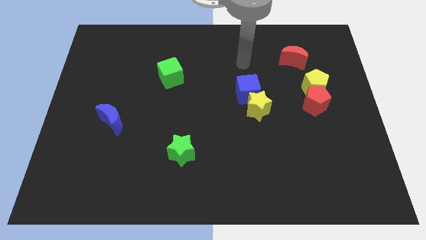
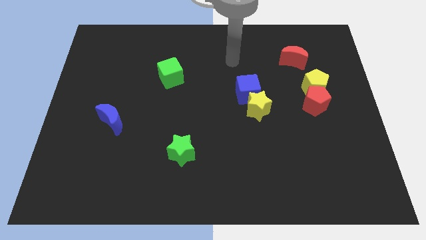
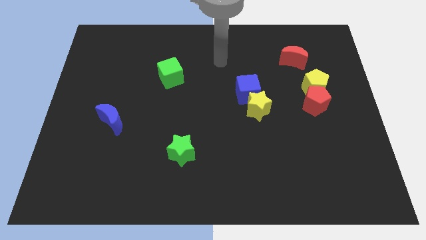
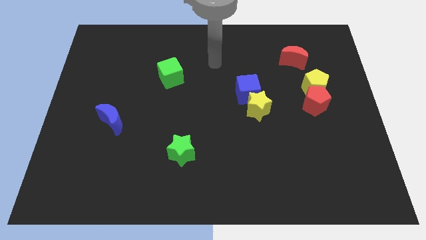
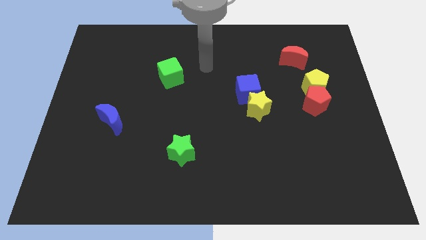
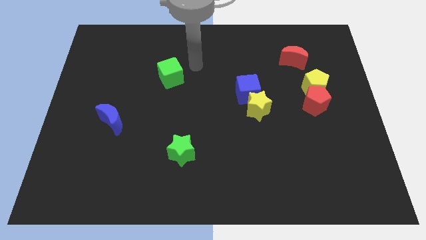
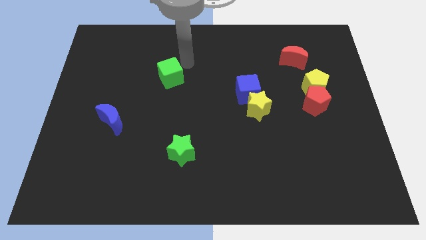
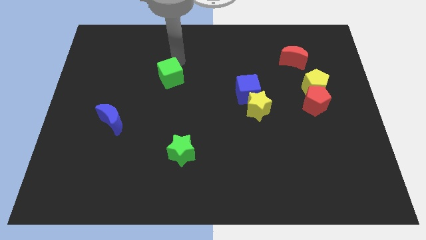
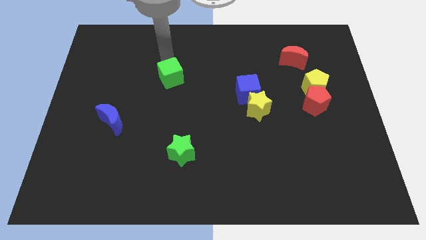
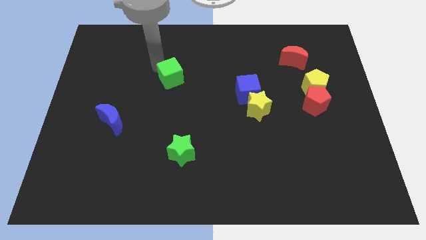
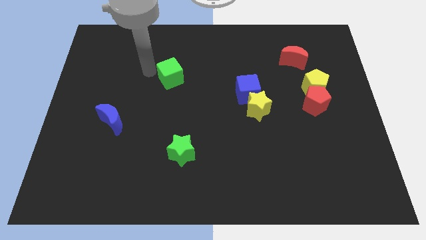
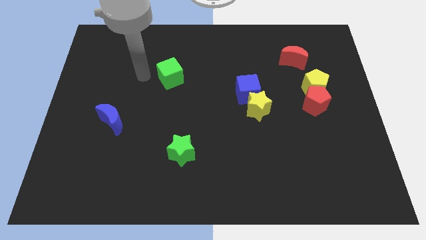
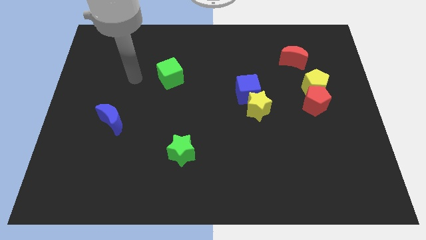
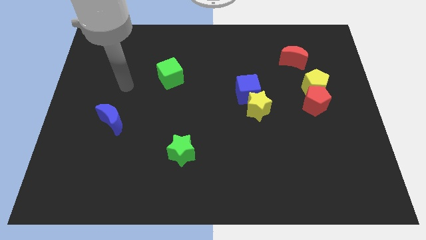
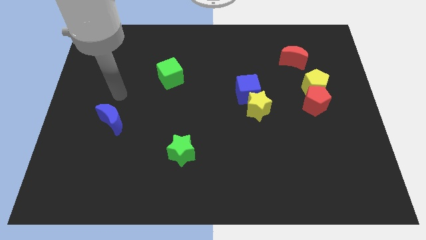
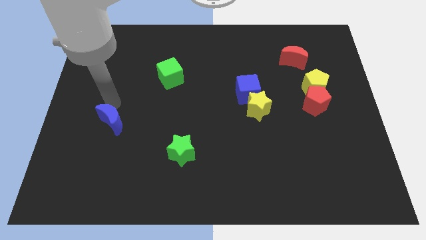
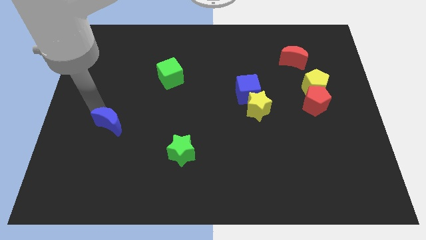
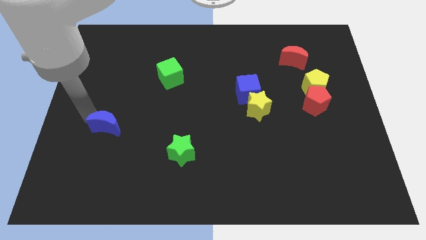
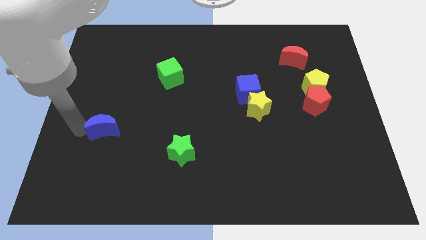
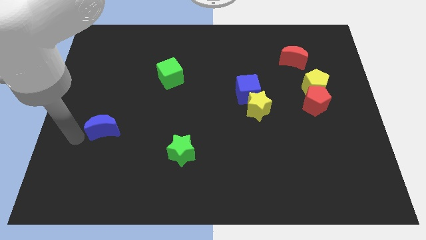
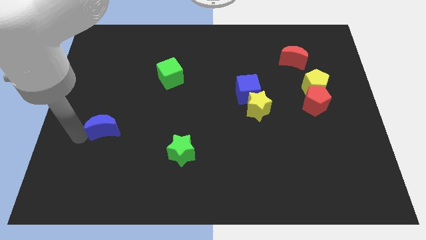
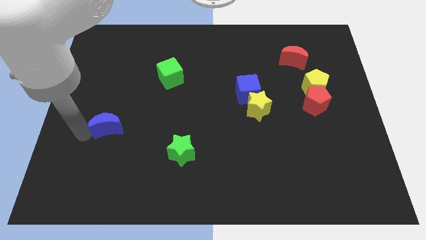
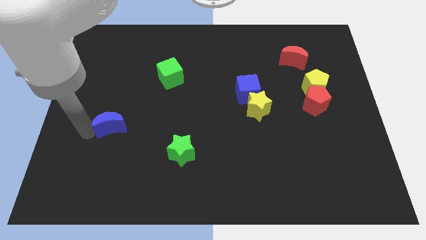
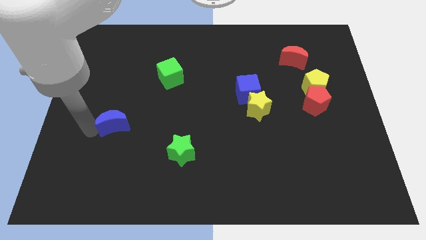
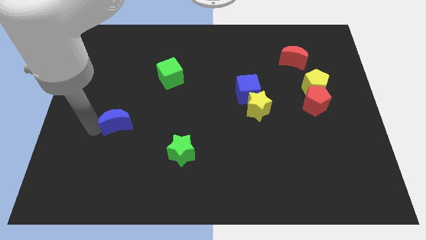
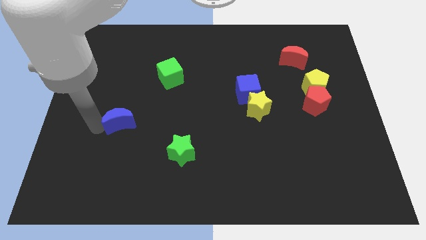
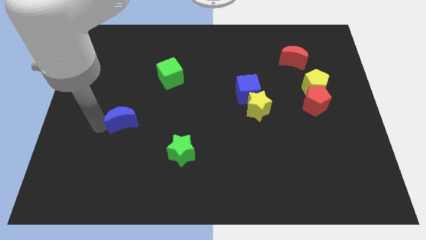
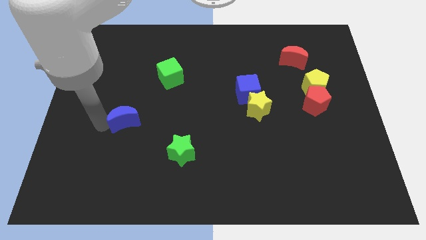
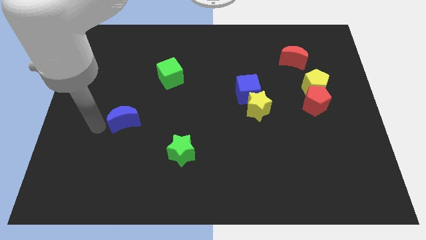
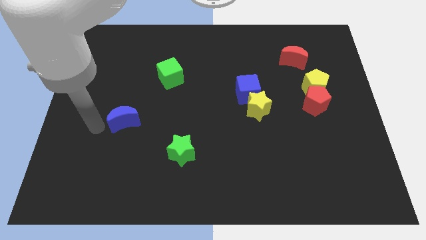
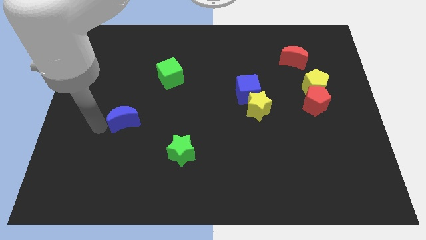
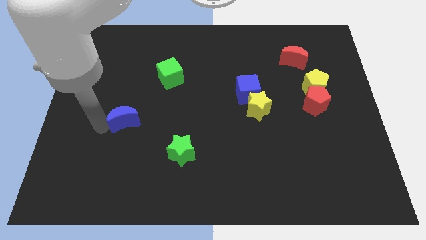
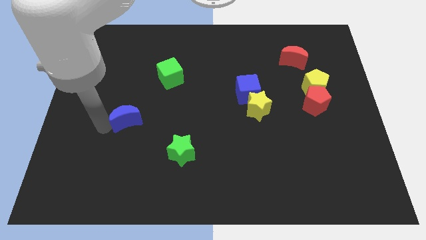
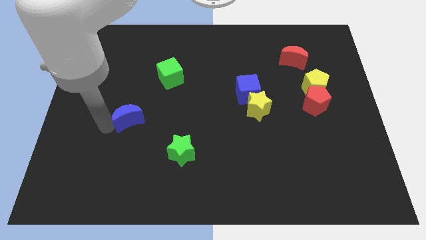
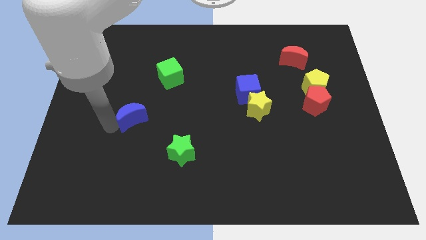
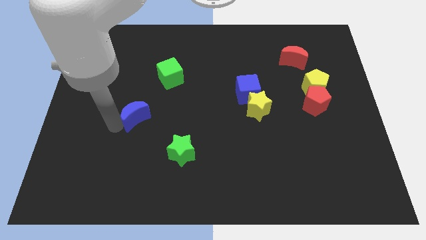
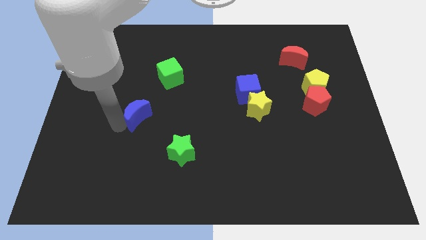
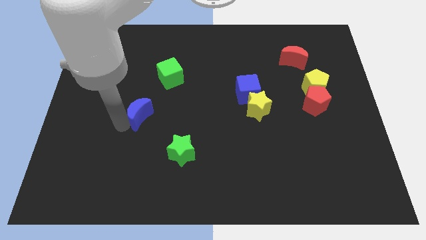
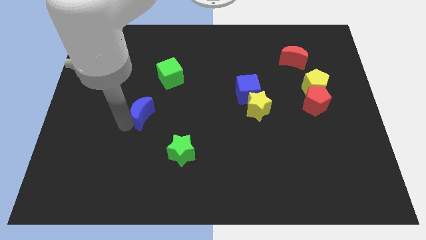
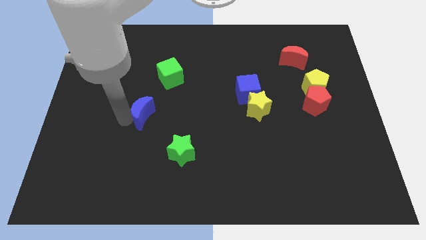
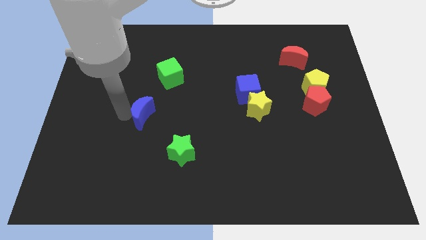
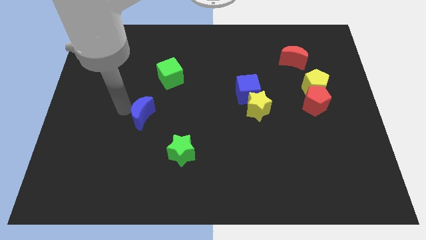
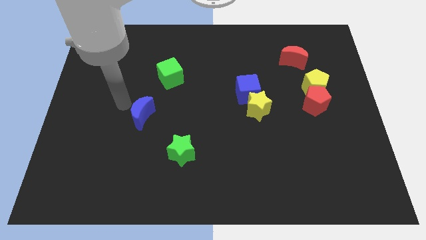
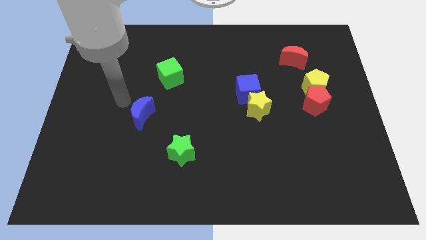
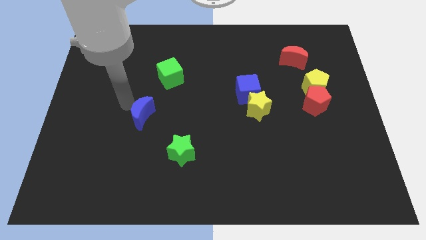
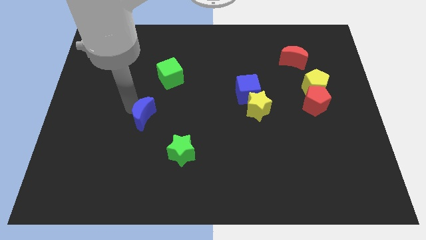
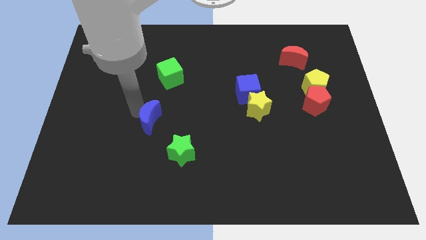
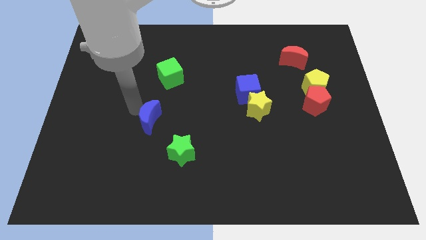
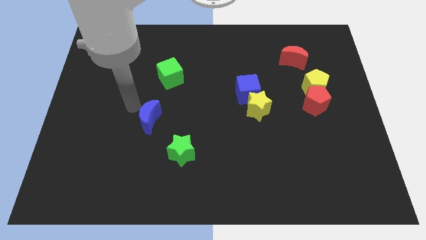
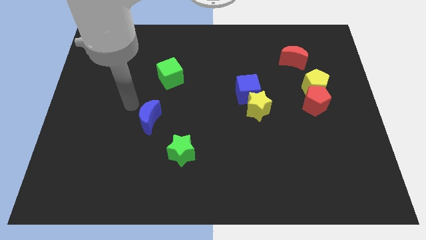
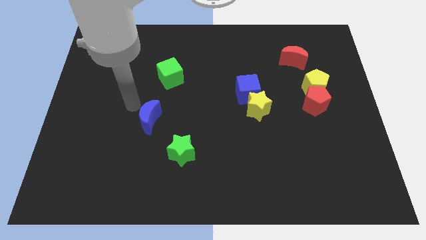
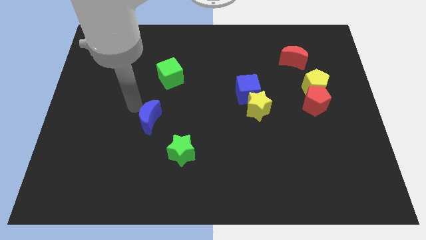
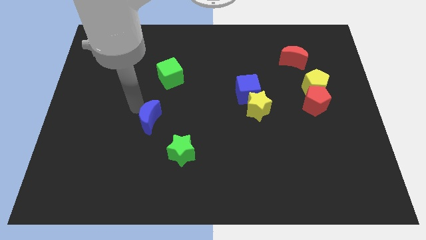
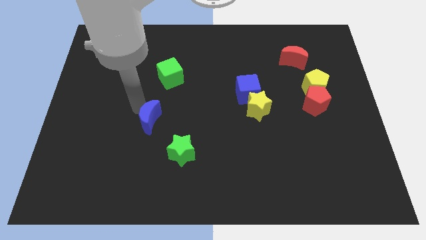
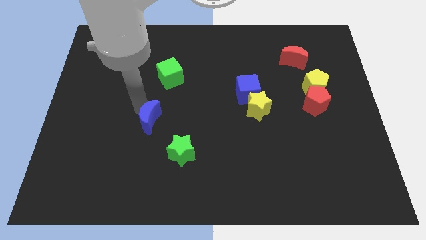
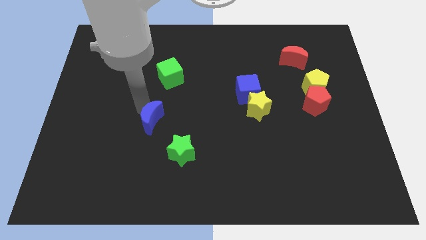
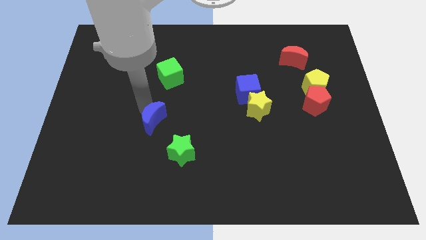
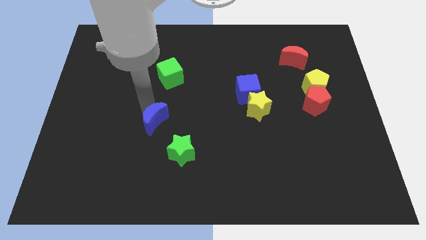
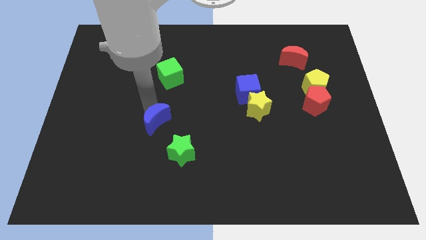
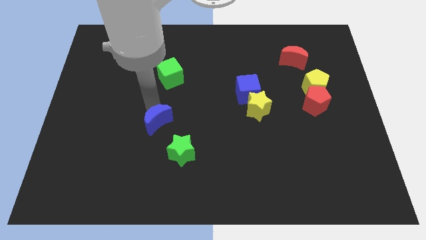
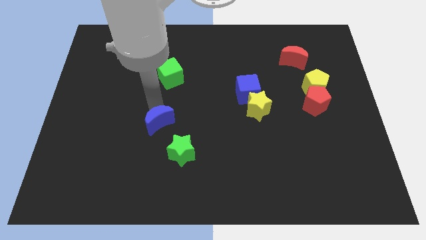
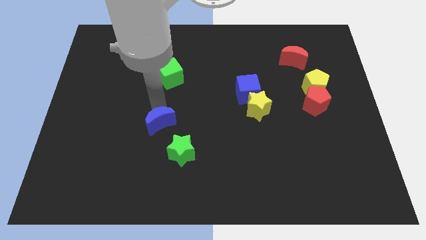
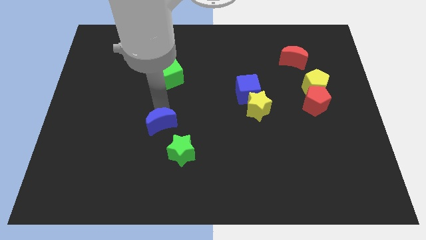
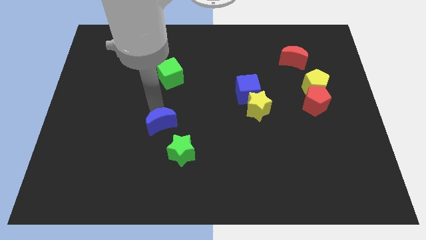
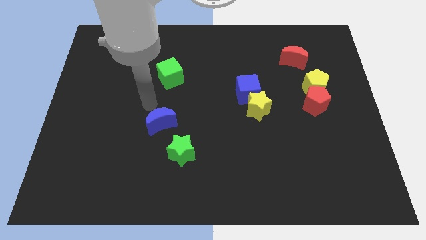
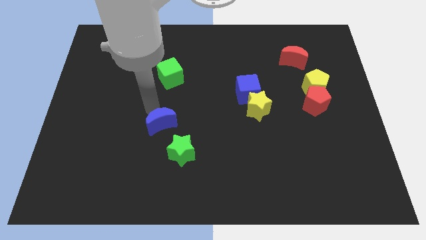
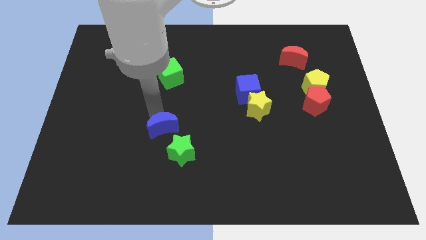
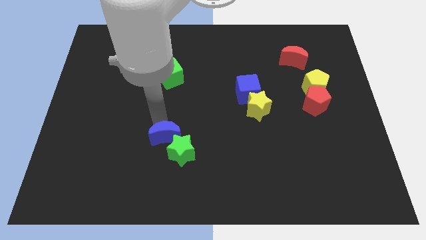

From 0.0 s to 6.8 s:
slide the blue moon to the green star
